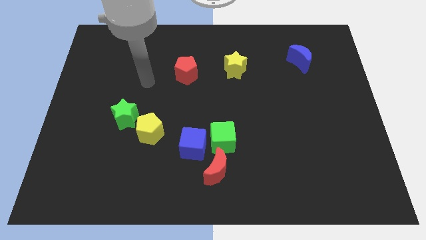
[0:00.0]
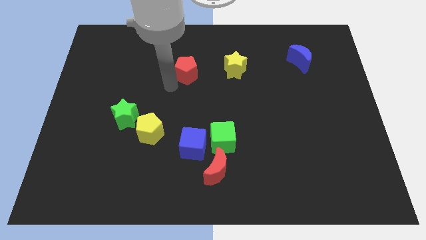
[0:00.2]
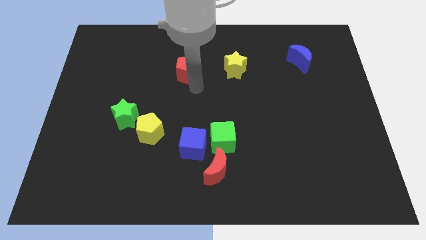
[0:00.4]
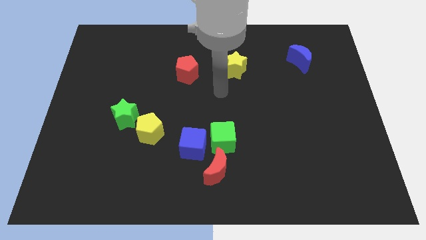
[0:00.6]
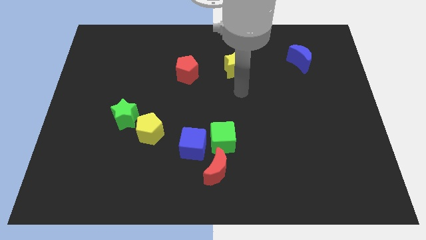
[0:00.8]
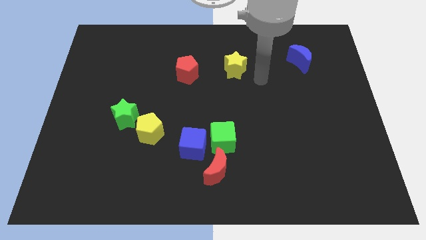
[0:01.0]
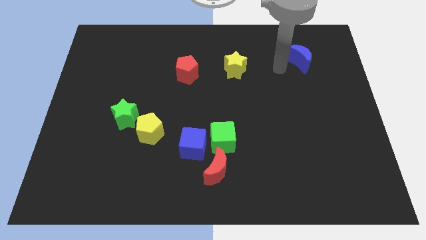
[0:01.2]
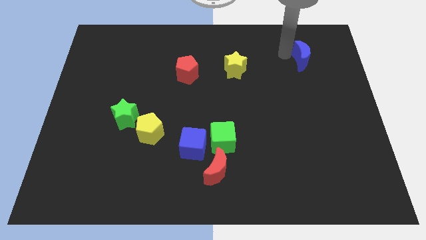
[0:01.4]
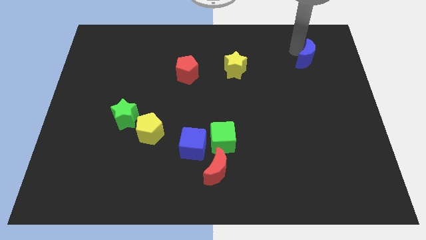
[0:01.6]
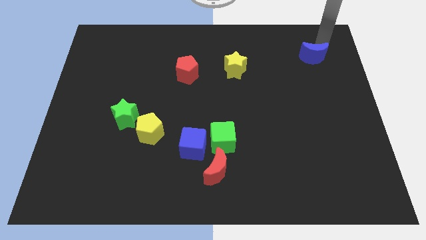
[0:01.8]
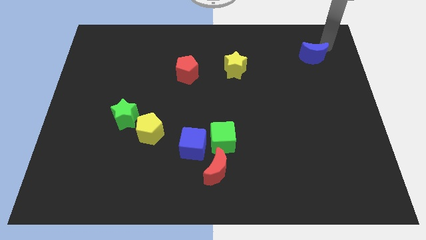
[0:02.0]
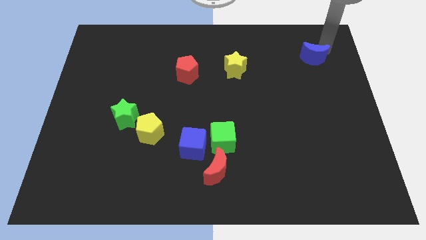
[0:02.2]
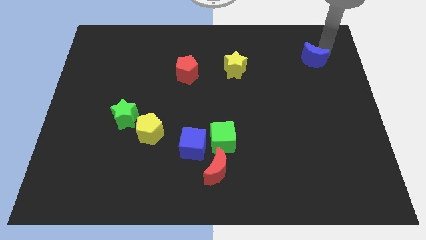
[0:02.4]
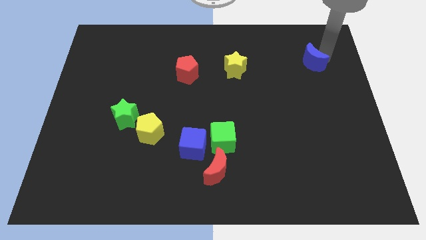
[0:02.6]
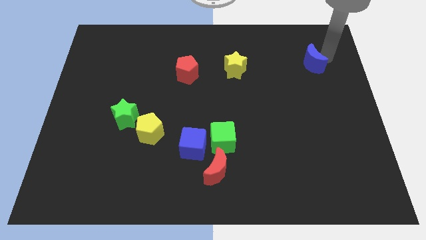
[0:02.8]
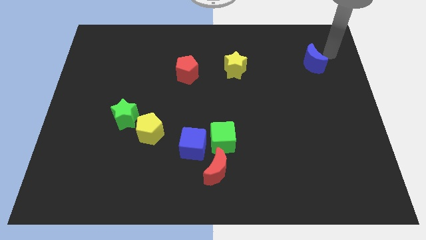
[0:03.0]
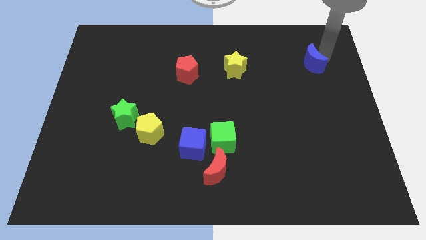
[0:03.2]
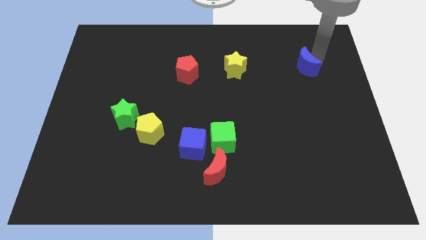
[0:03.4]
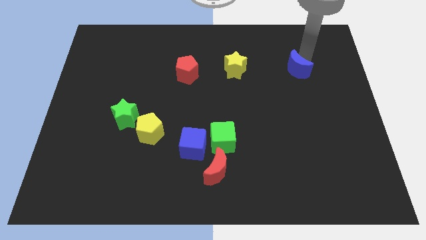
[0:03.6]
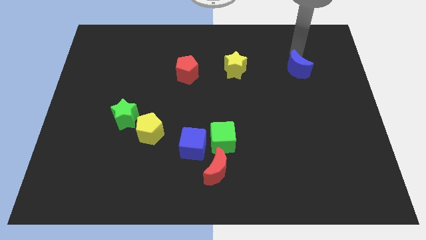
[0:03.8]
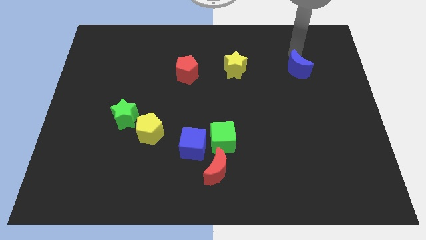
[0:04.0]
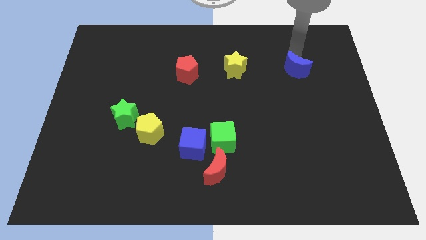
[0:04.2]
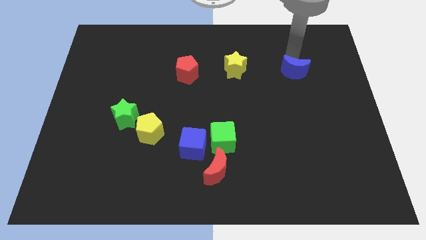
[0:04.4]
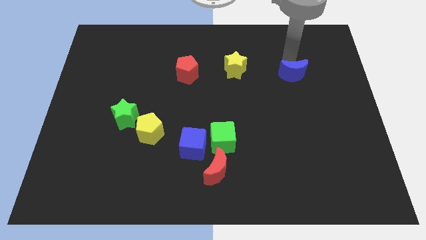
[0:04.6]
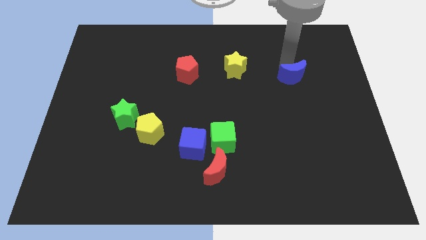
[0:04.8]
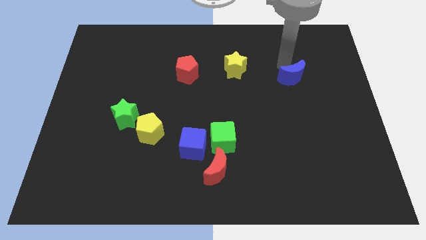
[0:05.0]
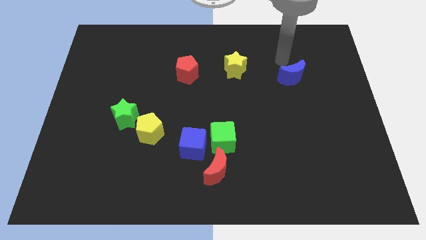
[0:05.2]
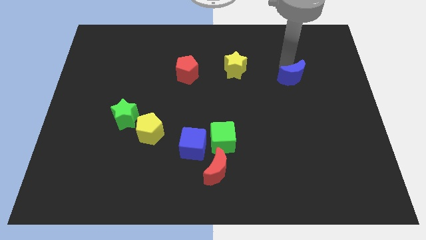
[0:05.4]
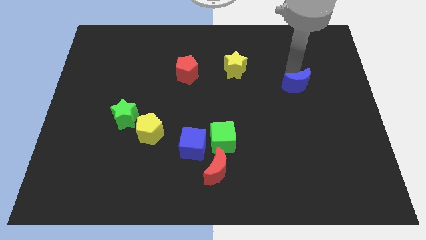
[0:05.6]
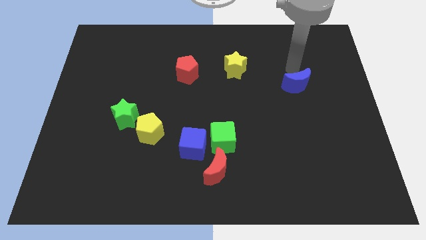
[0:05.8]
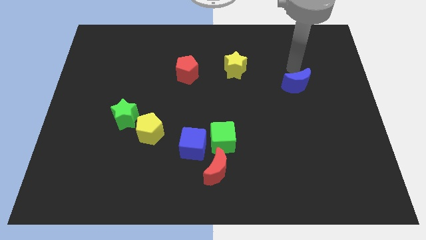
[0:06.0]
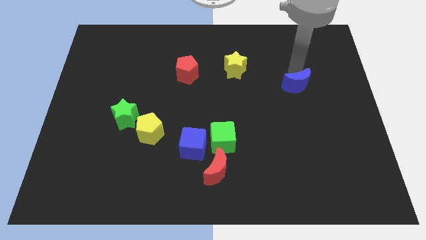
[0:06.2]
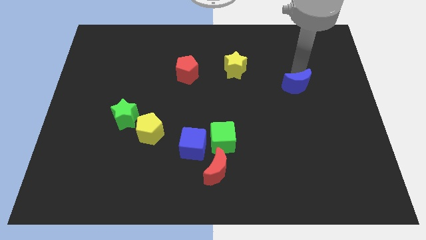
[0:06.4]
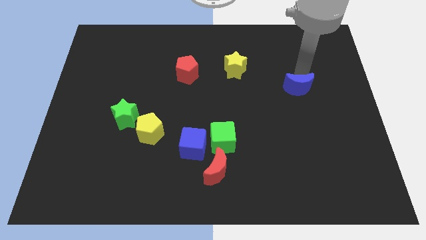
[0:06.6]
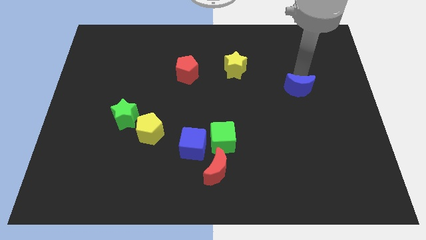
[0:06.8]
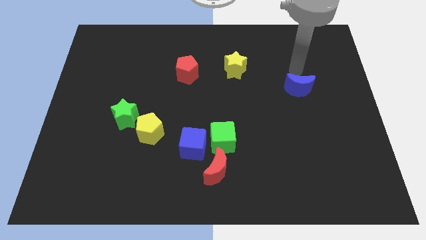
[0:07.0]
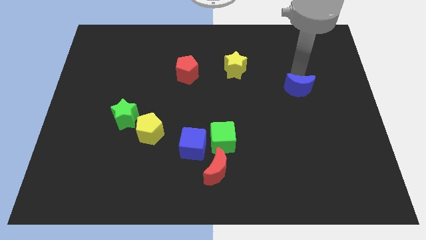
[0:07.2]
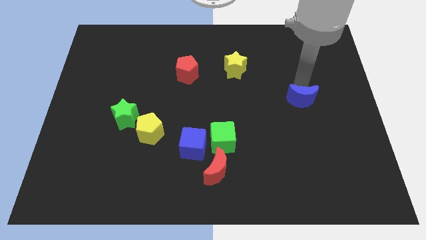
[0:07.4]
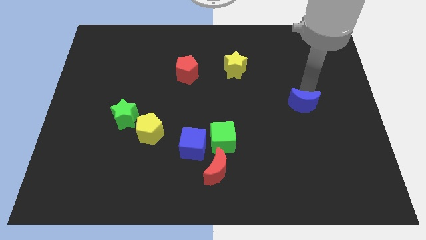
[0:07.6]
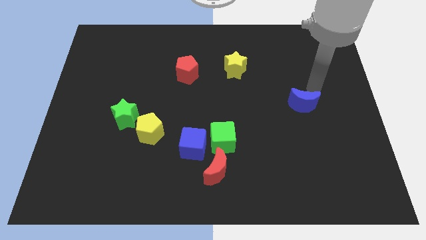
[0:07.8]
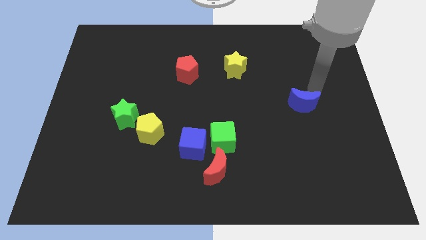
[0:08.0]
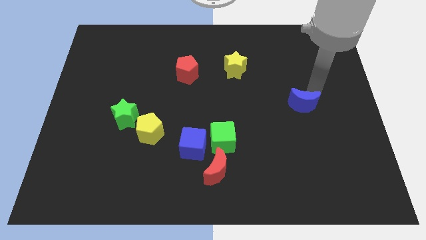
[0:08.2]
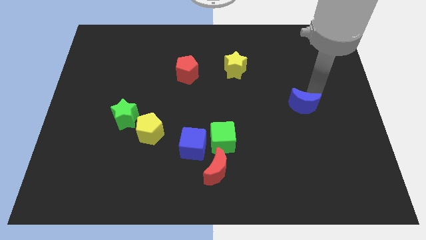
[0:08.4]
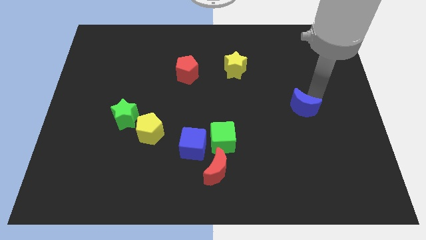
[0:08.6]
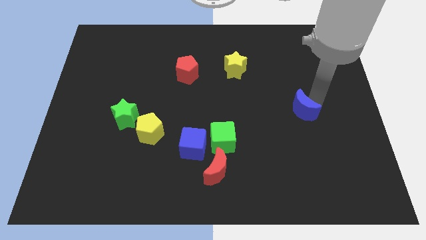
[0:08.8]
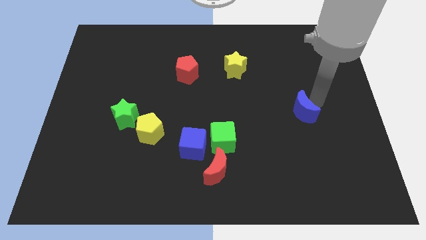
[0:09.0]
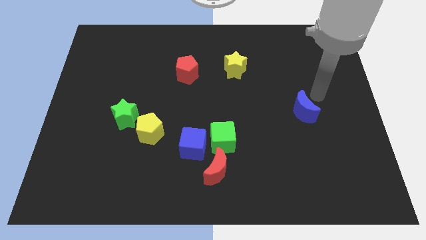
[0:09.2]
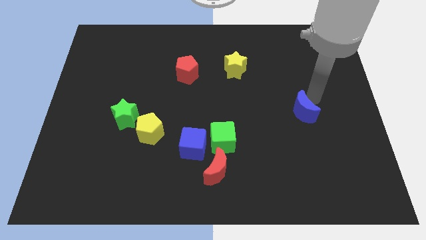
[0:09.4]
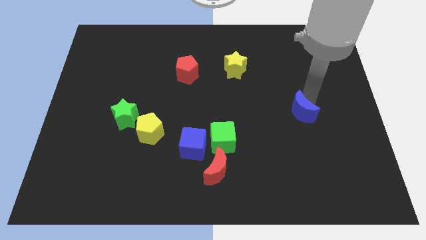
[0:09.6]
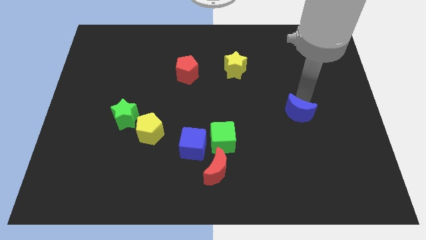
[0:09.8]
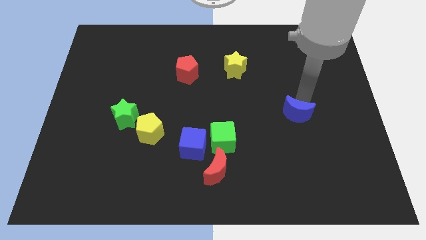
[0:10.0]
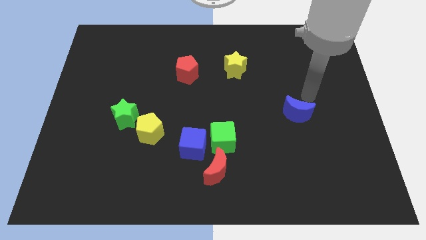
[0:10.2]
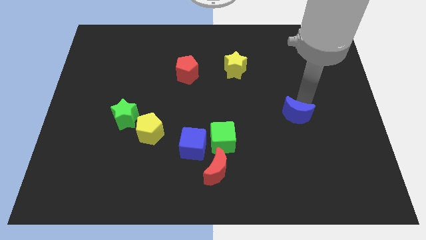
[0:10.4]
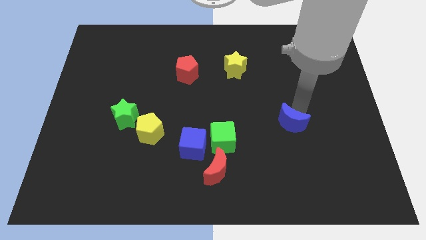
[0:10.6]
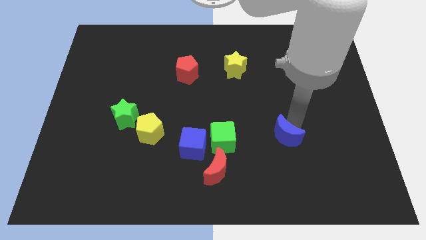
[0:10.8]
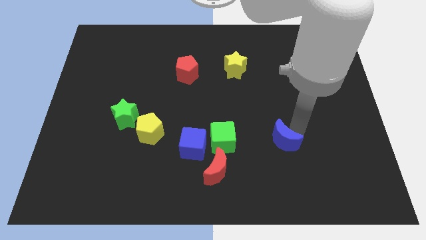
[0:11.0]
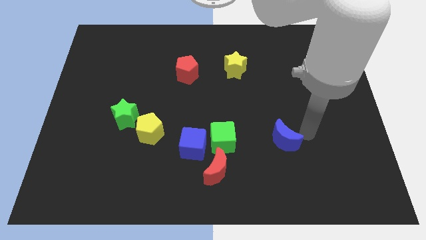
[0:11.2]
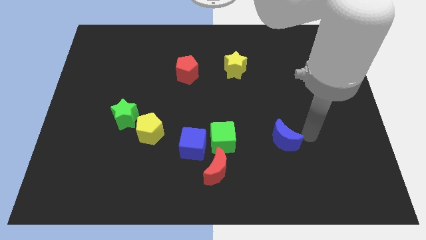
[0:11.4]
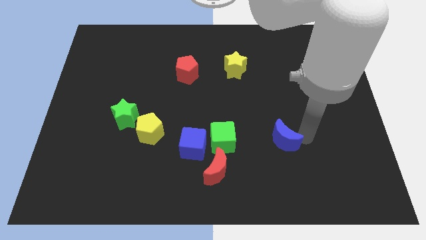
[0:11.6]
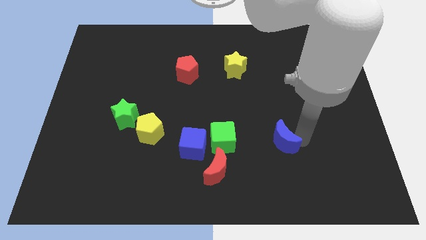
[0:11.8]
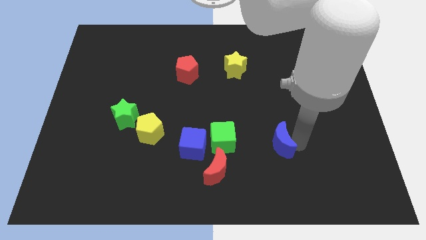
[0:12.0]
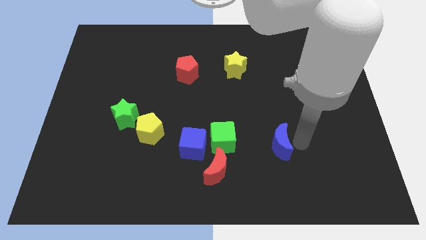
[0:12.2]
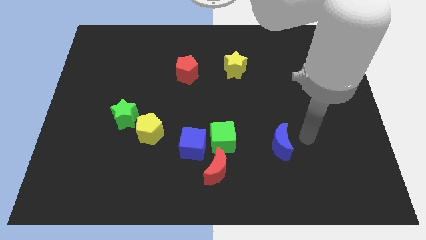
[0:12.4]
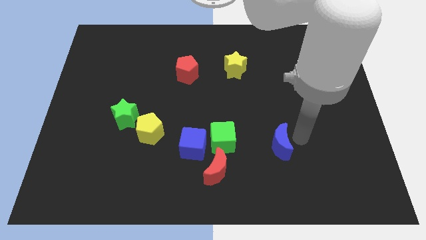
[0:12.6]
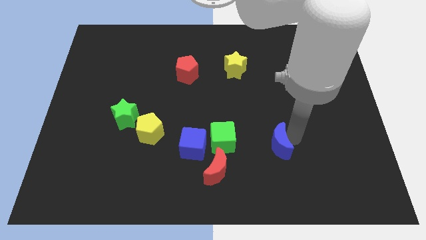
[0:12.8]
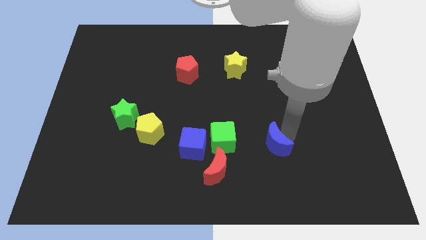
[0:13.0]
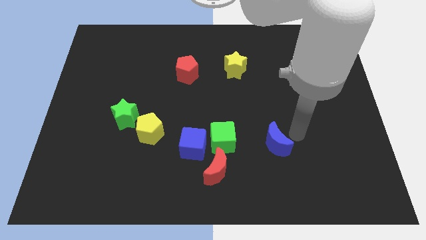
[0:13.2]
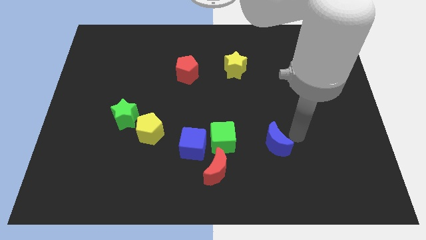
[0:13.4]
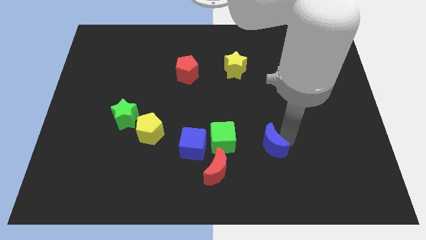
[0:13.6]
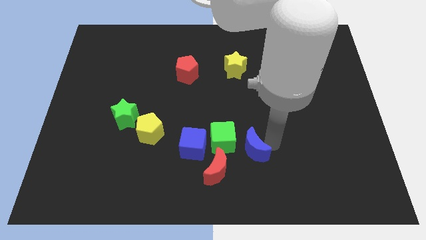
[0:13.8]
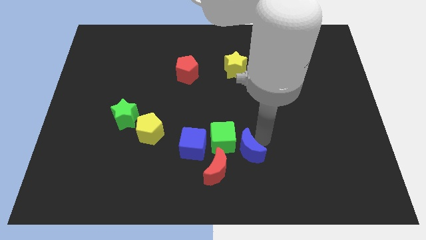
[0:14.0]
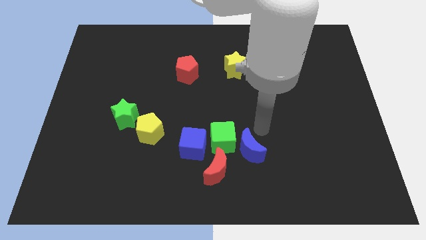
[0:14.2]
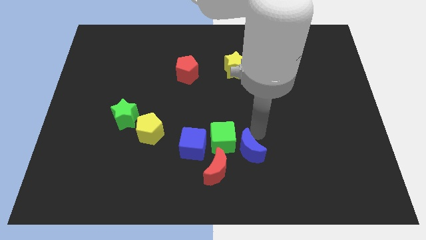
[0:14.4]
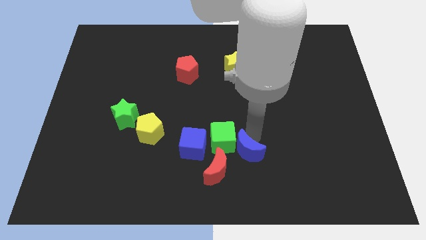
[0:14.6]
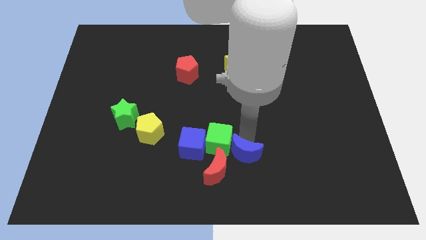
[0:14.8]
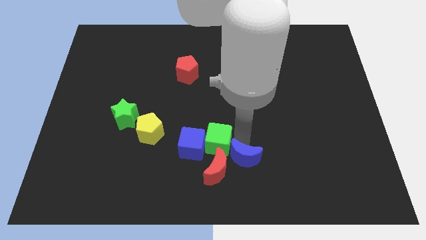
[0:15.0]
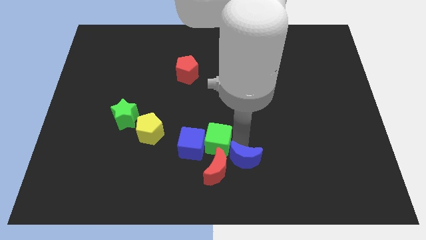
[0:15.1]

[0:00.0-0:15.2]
move the blue moon to the bottom side
